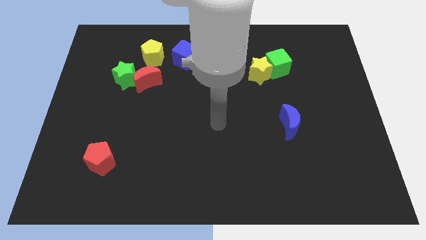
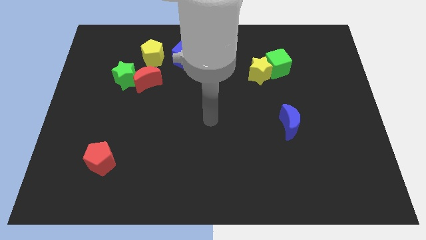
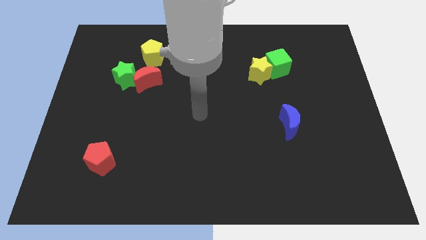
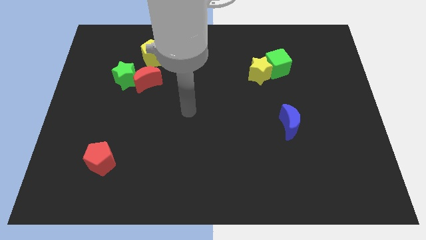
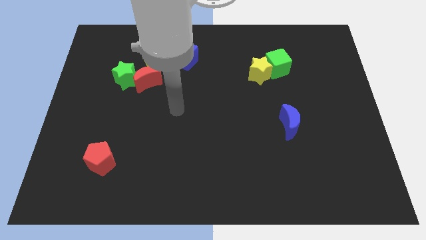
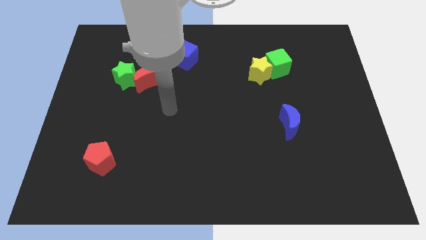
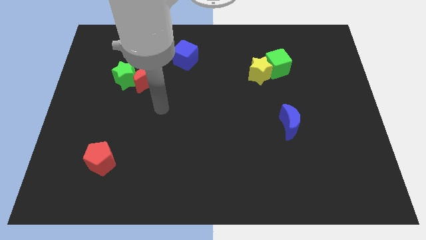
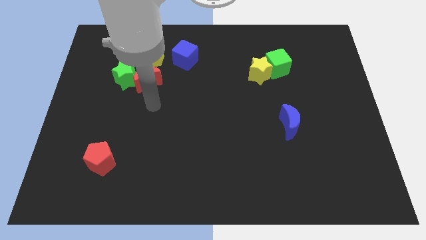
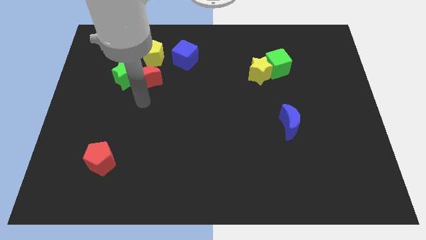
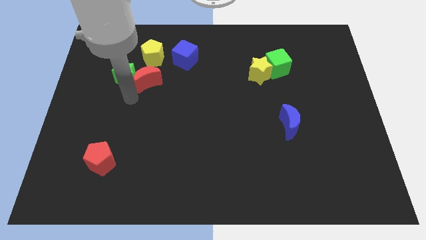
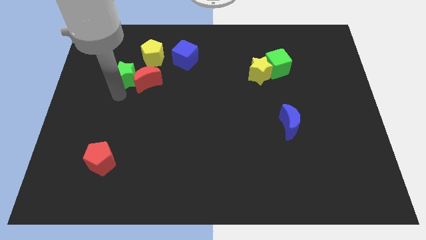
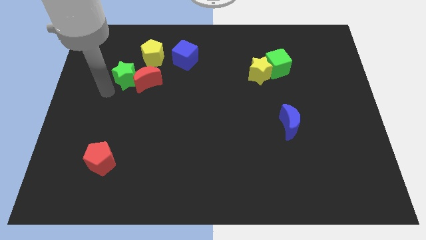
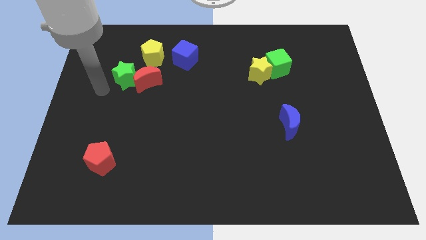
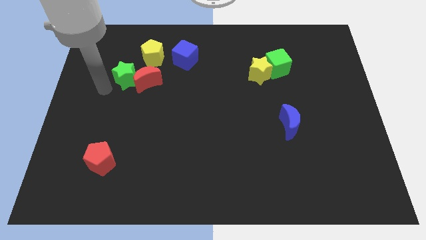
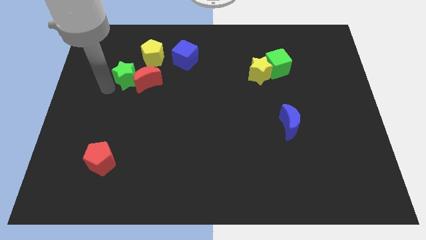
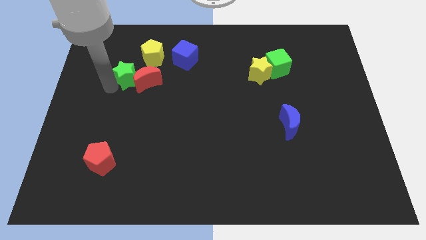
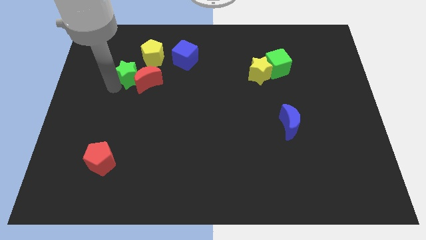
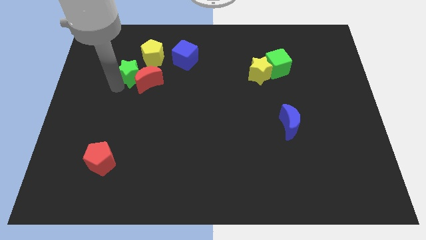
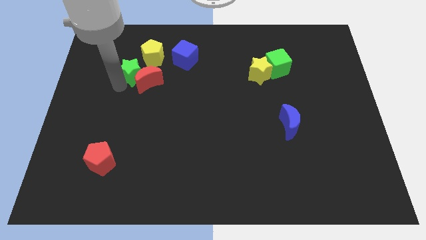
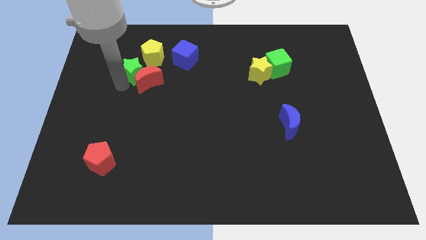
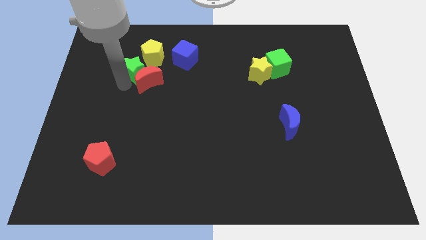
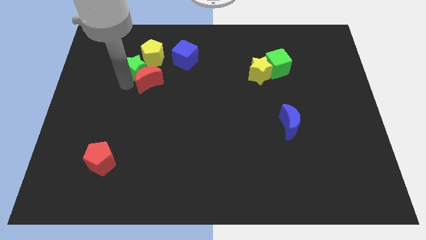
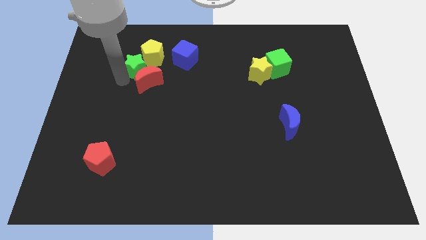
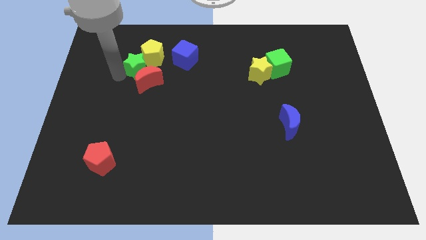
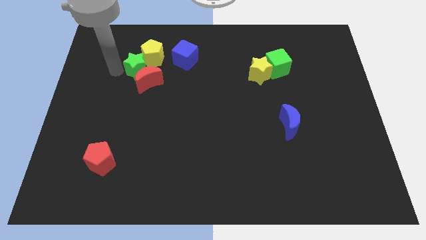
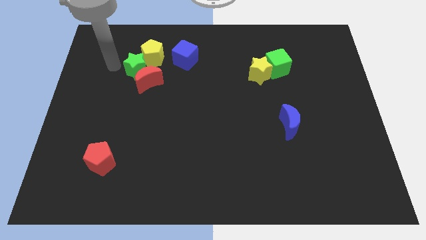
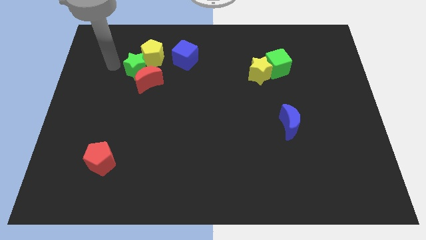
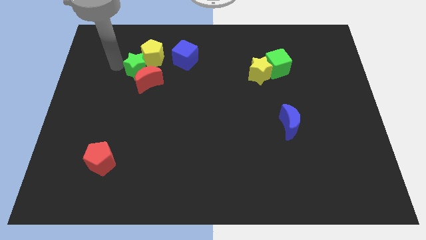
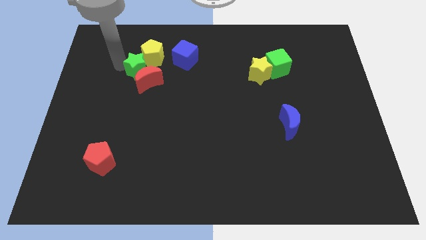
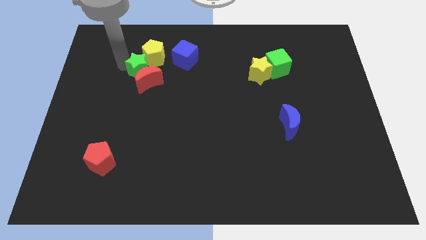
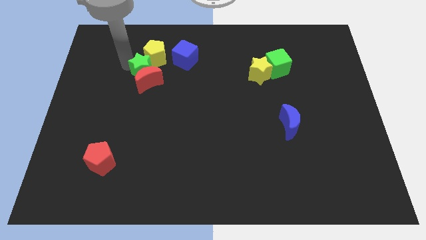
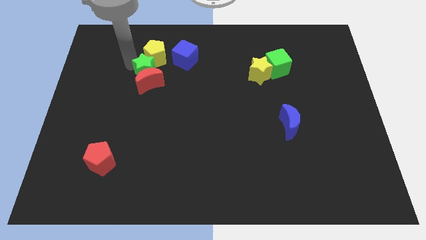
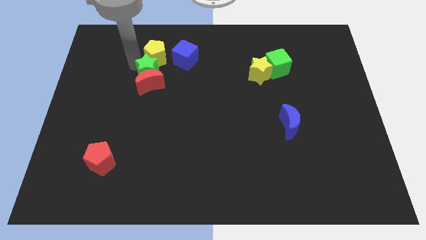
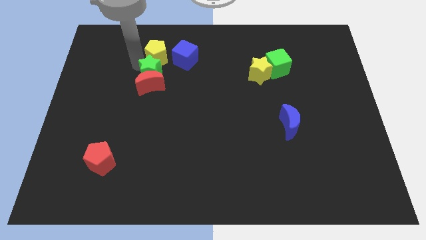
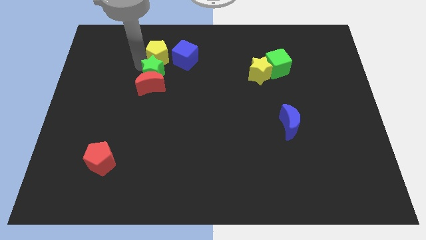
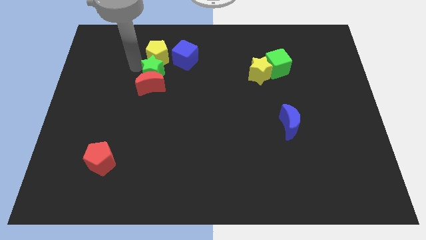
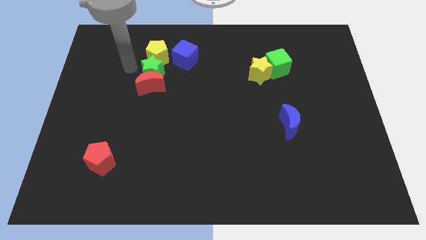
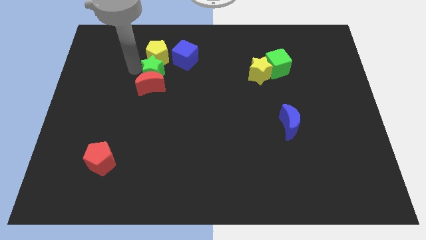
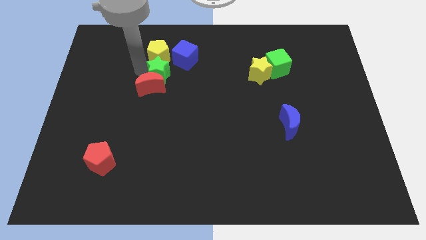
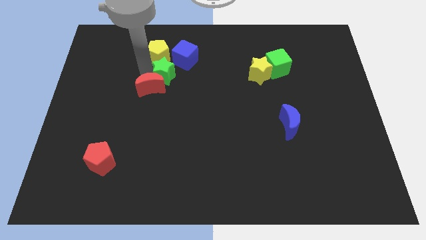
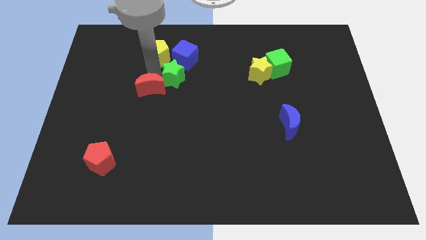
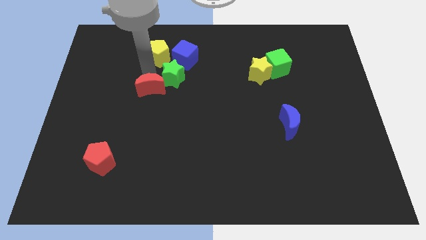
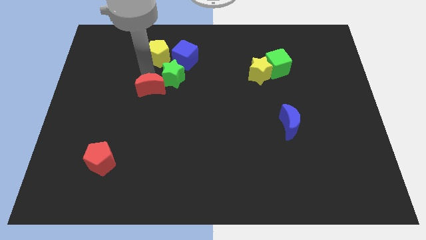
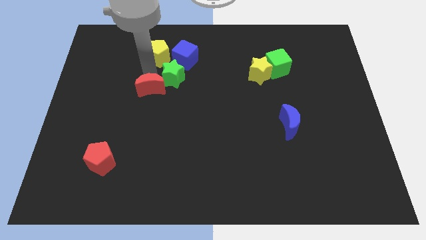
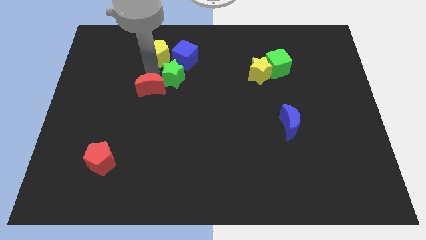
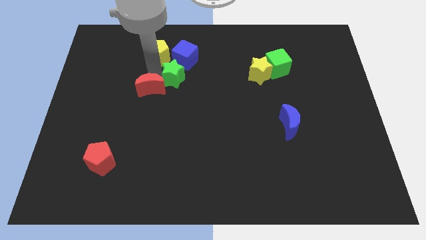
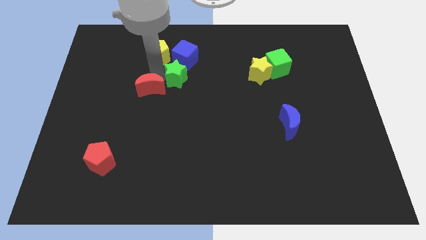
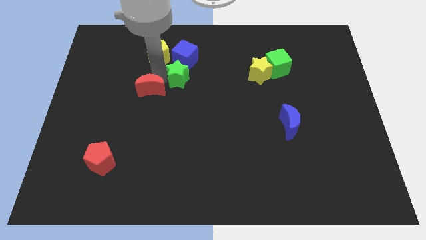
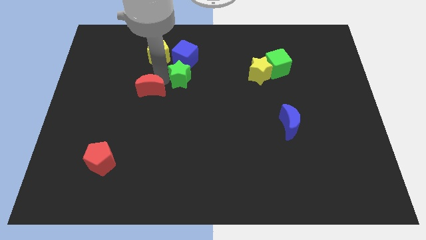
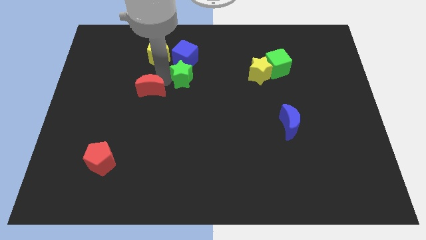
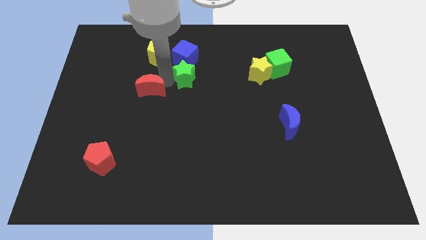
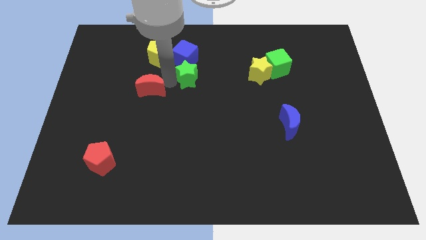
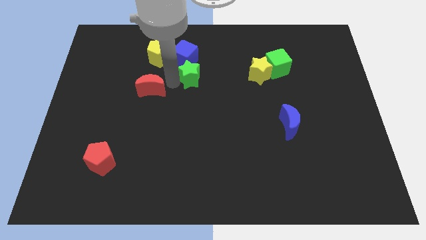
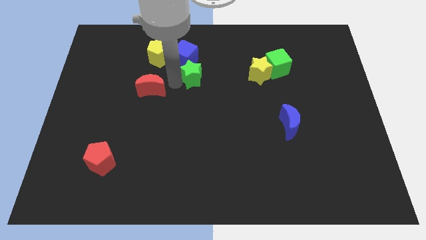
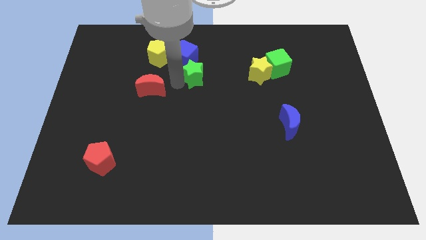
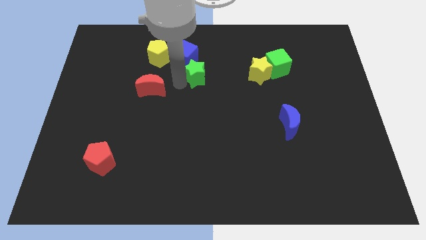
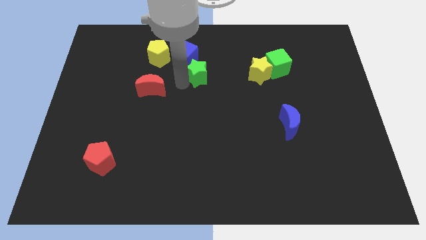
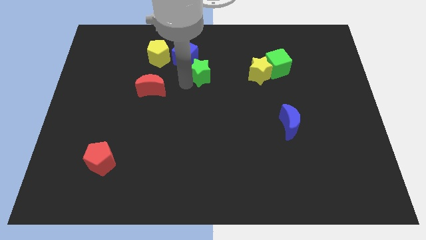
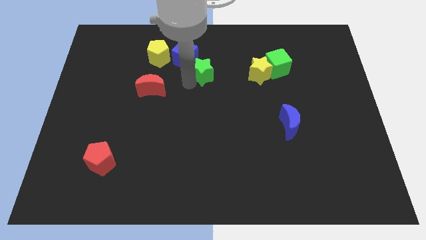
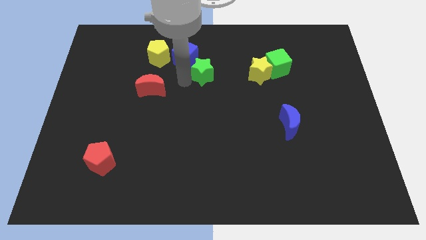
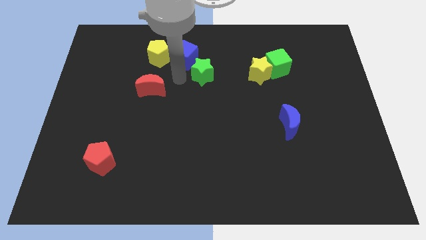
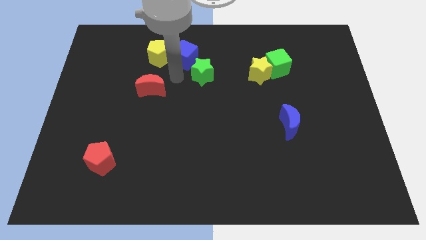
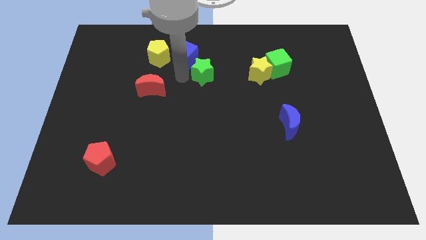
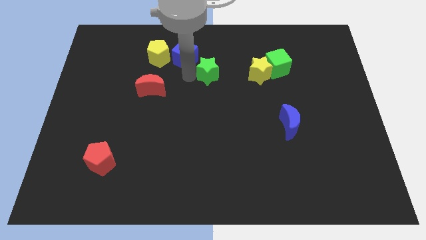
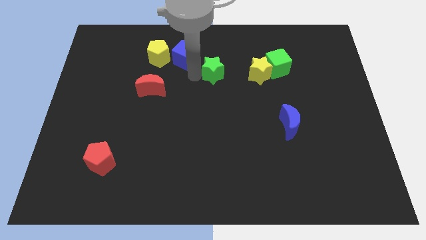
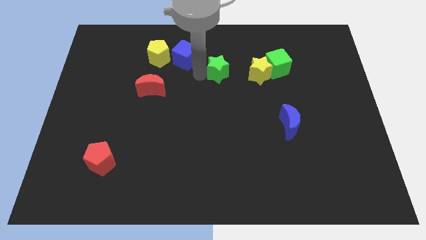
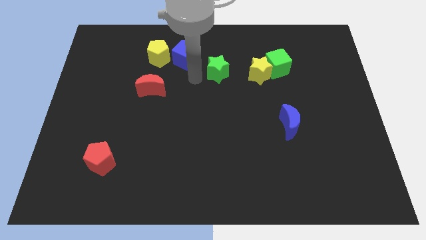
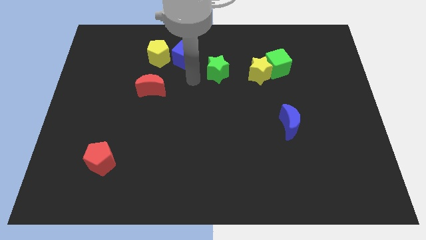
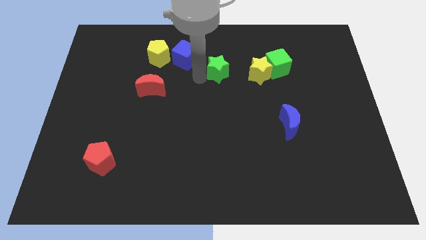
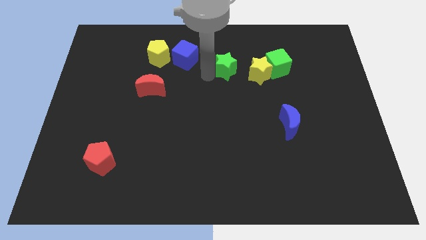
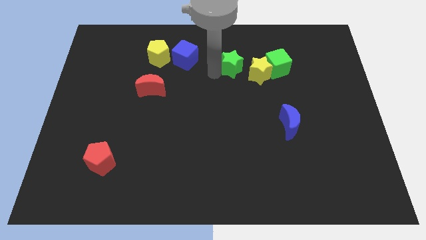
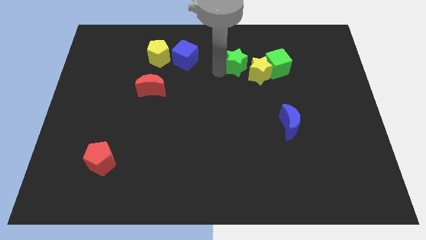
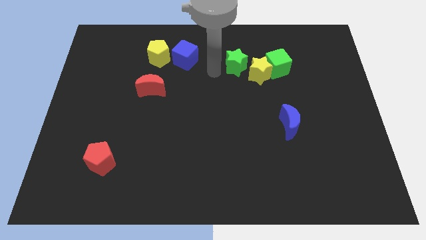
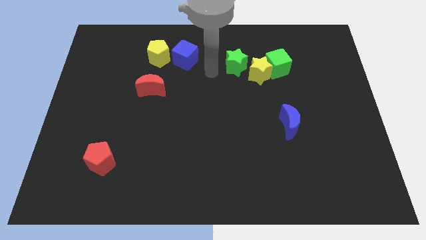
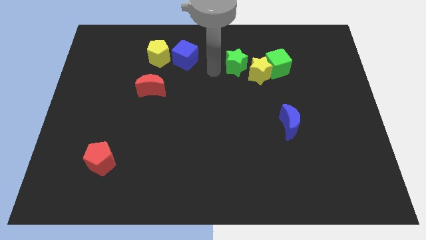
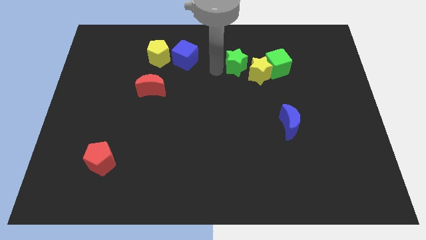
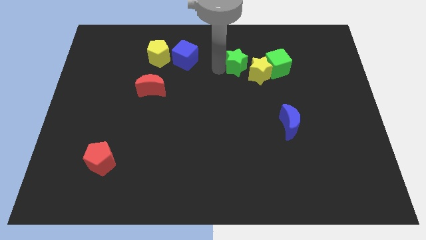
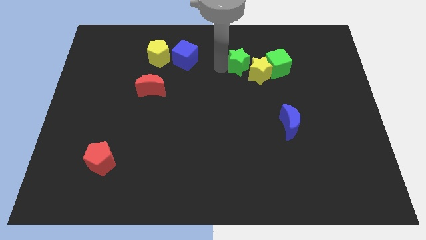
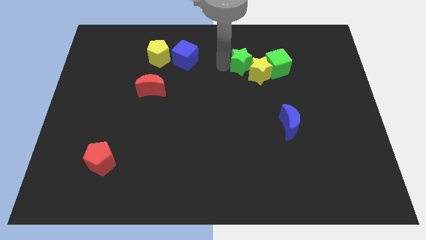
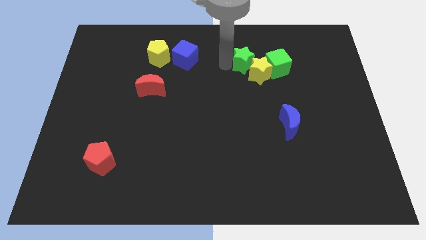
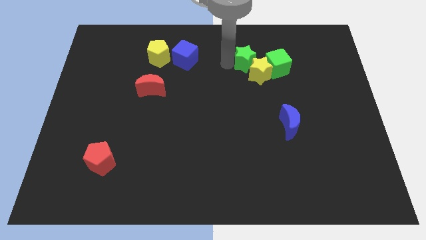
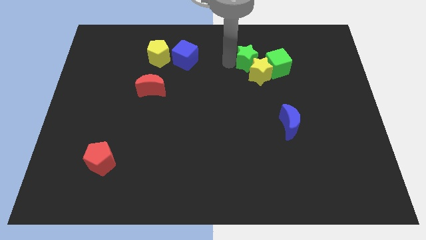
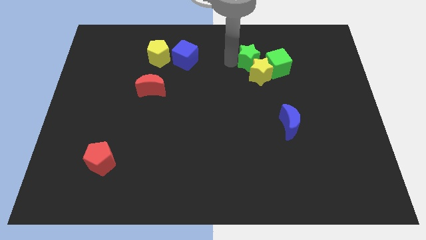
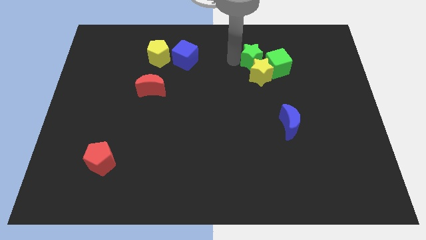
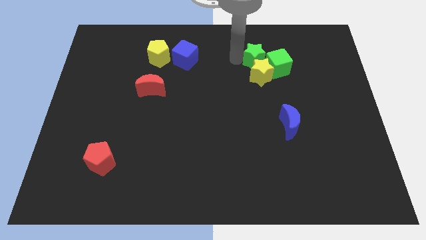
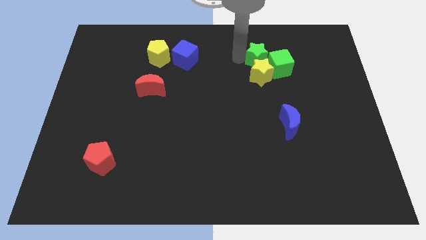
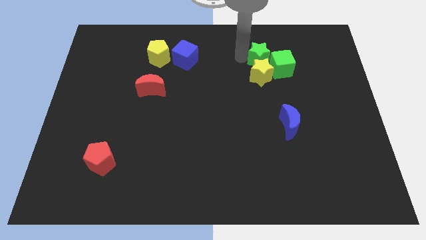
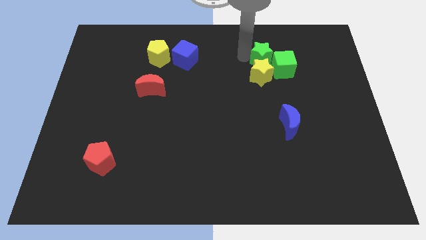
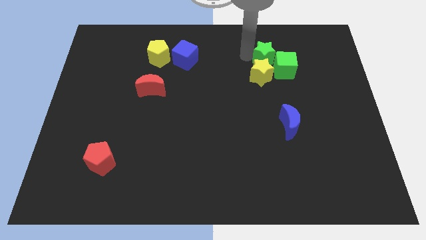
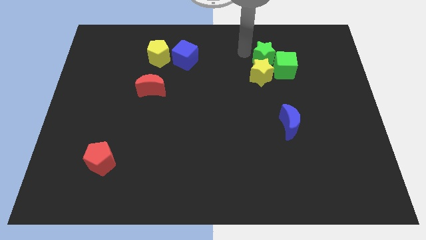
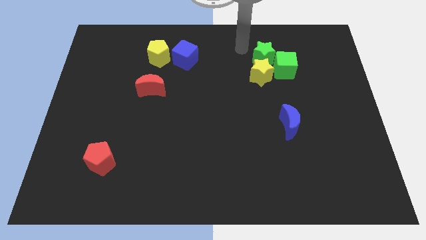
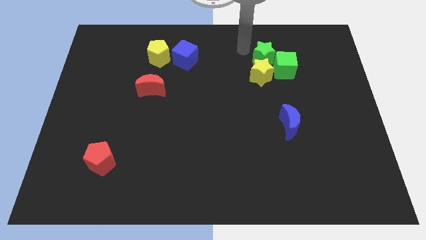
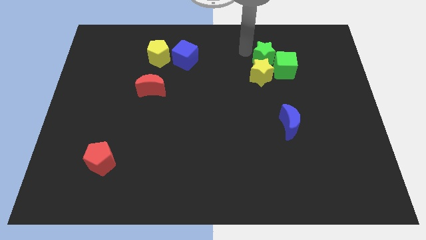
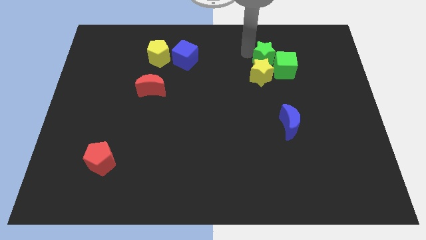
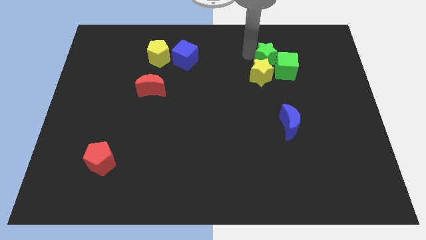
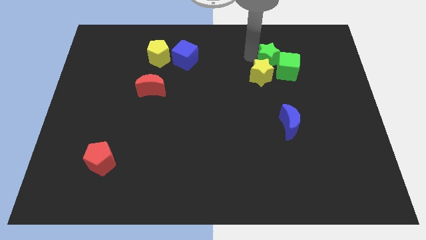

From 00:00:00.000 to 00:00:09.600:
push the green star towards the green cube
